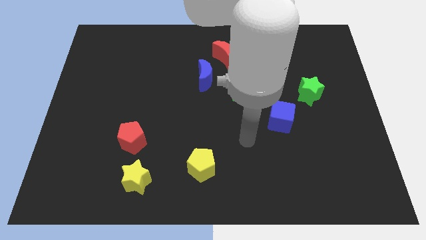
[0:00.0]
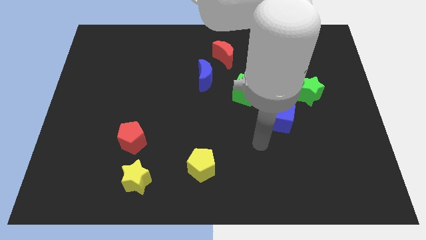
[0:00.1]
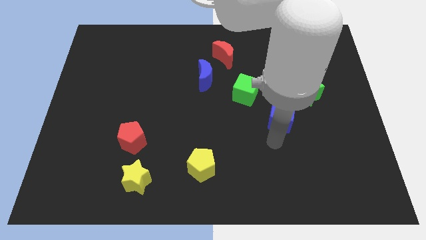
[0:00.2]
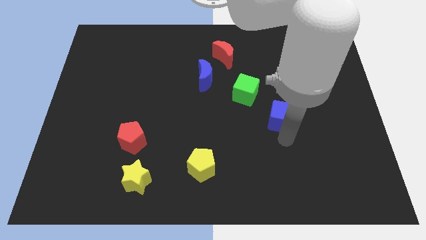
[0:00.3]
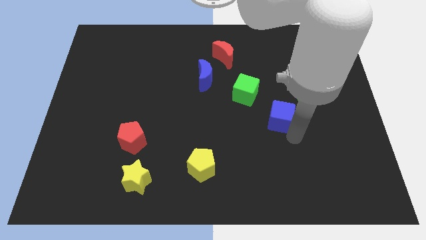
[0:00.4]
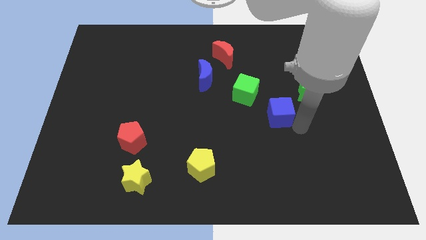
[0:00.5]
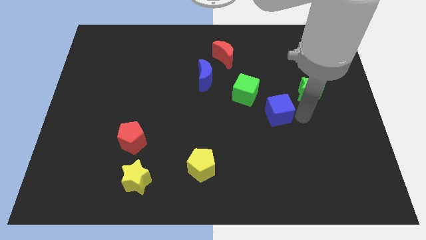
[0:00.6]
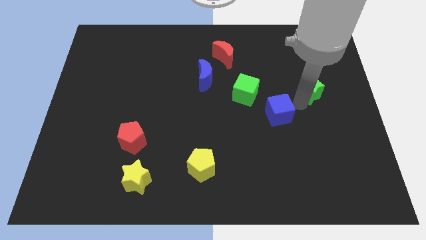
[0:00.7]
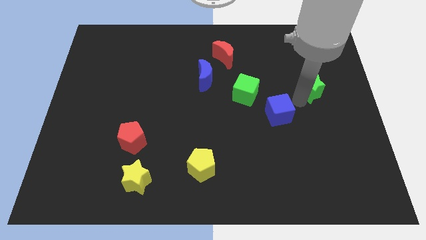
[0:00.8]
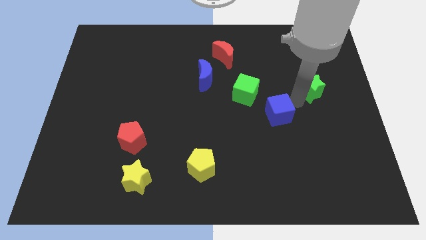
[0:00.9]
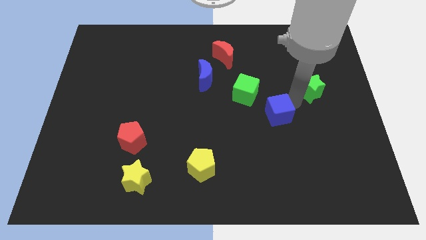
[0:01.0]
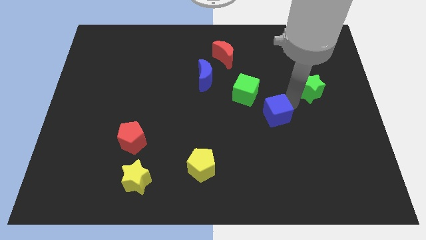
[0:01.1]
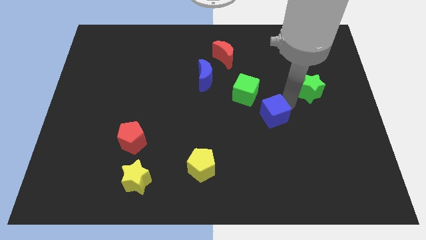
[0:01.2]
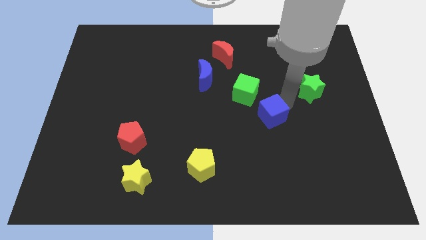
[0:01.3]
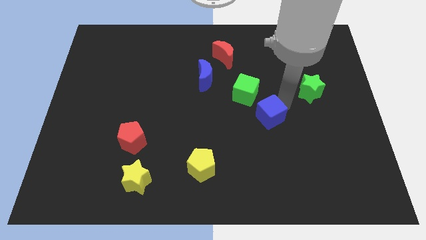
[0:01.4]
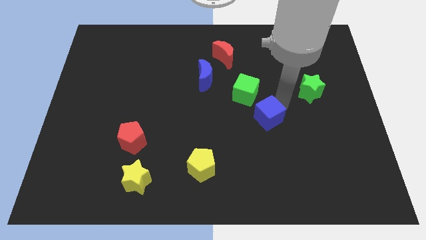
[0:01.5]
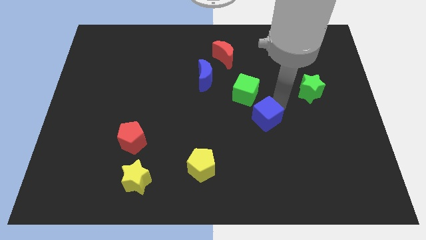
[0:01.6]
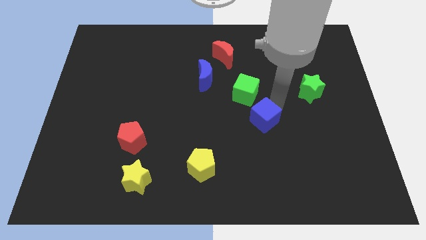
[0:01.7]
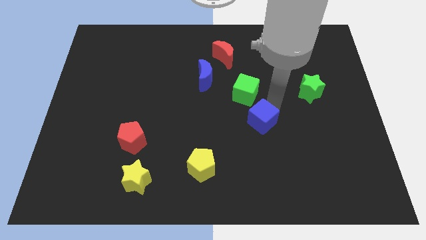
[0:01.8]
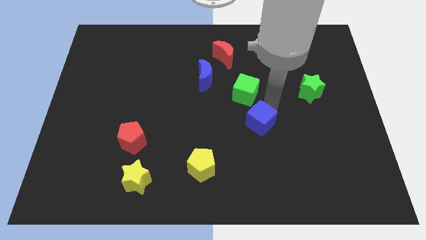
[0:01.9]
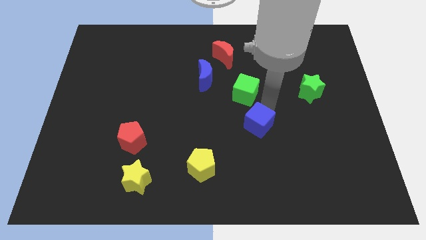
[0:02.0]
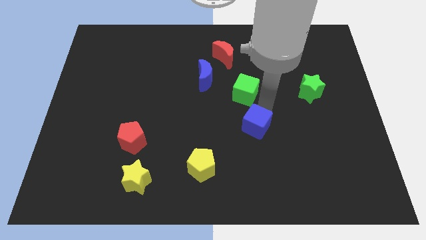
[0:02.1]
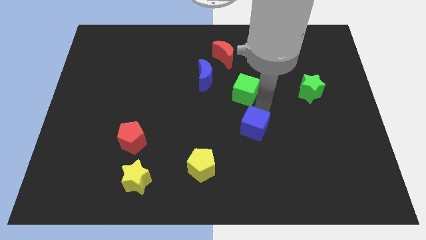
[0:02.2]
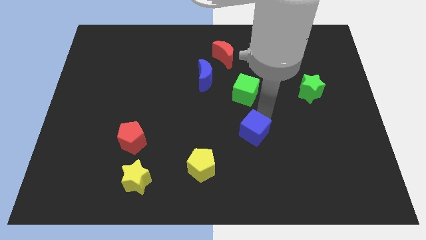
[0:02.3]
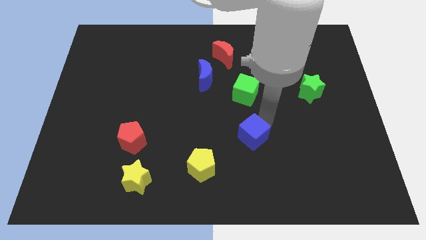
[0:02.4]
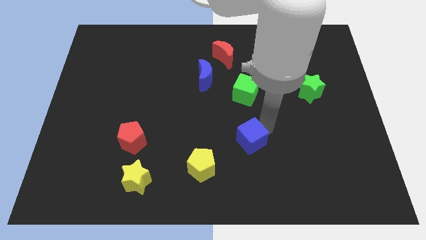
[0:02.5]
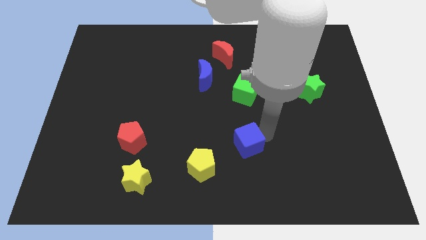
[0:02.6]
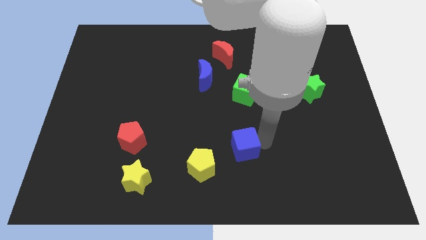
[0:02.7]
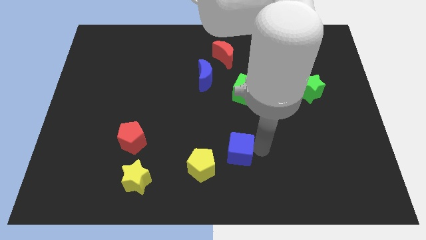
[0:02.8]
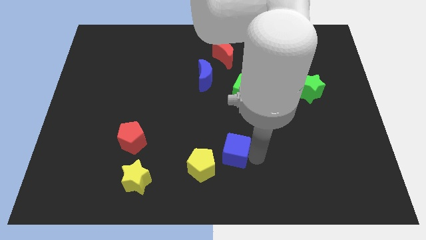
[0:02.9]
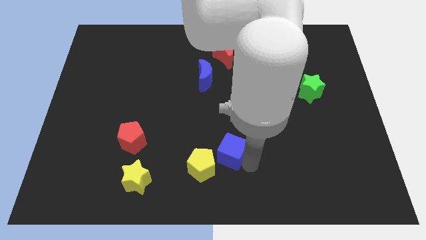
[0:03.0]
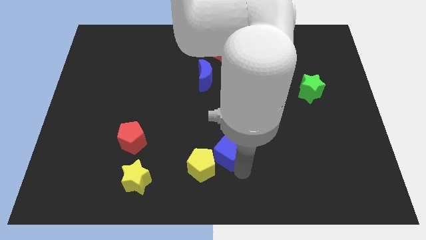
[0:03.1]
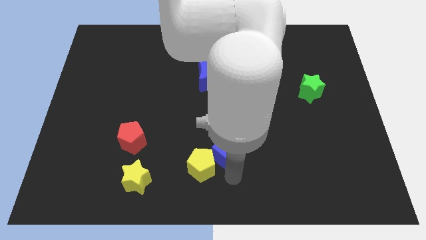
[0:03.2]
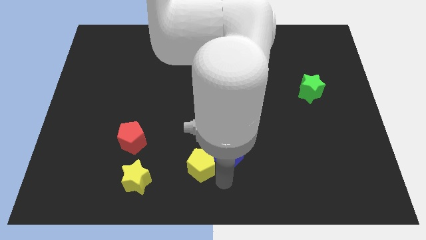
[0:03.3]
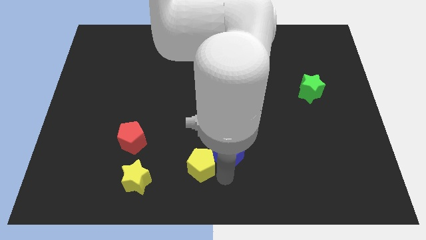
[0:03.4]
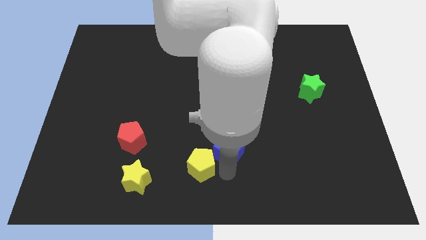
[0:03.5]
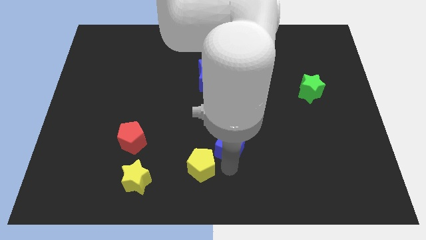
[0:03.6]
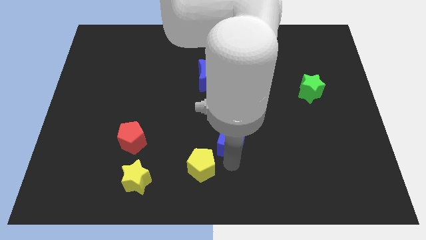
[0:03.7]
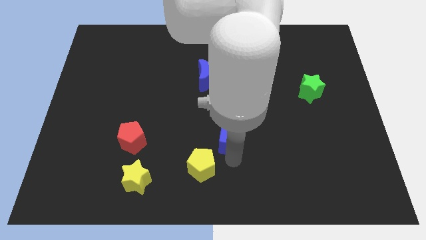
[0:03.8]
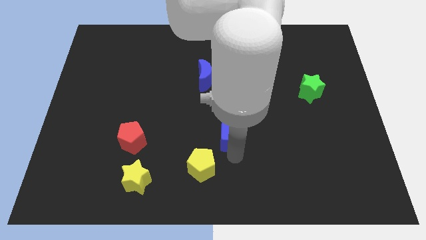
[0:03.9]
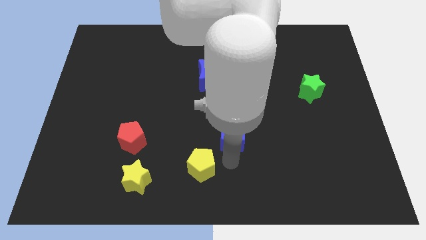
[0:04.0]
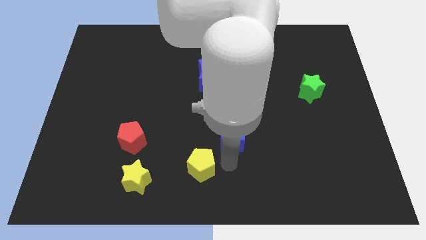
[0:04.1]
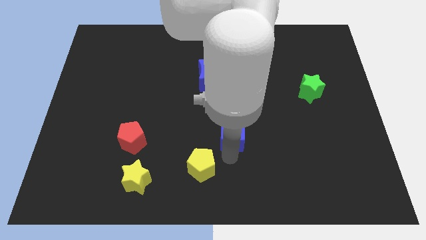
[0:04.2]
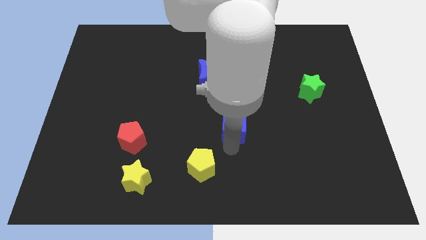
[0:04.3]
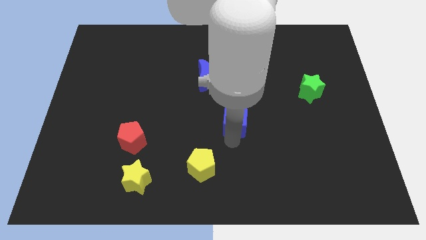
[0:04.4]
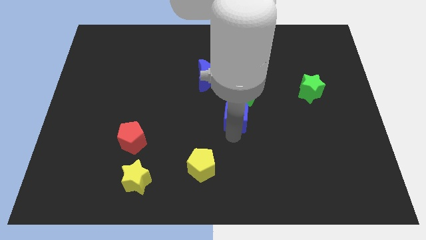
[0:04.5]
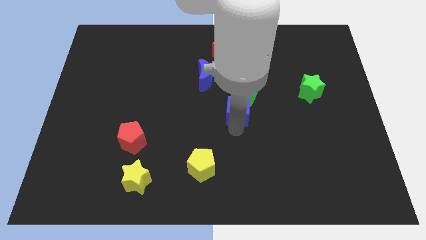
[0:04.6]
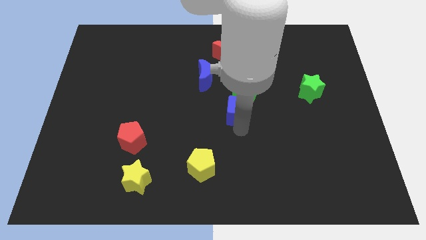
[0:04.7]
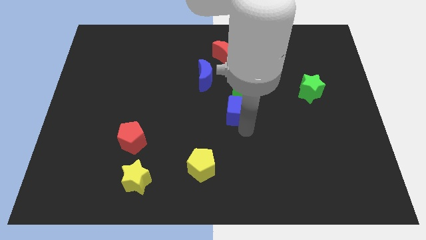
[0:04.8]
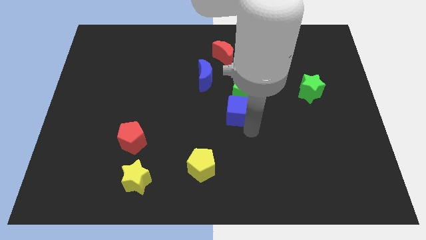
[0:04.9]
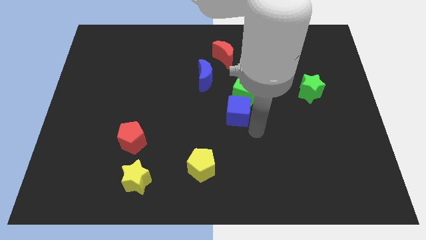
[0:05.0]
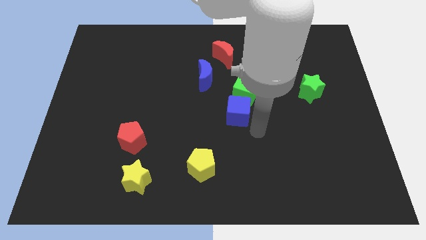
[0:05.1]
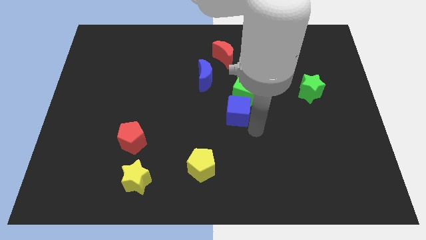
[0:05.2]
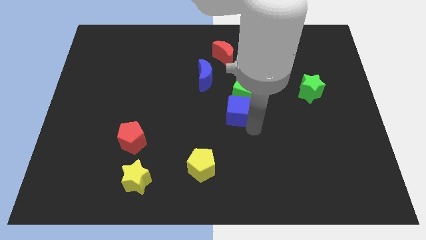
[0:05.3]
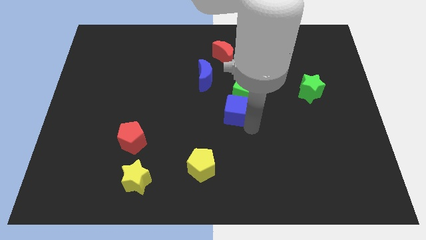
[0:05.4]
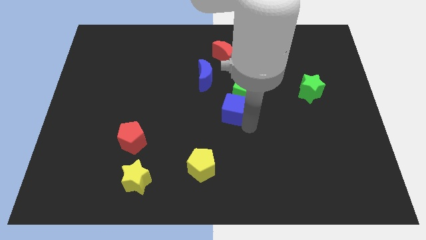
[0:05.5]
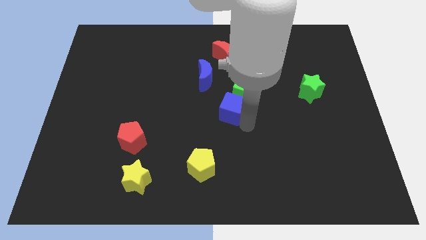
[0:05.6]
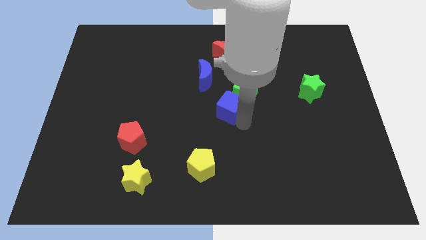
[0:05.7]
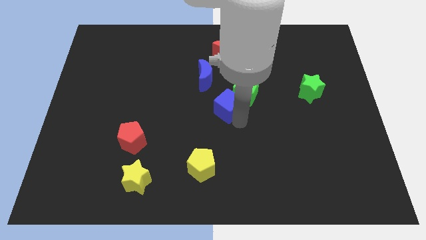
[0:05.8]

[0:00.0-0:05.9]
move the blue cube left of the green cube
